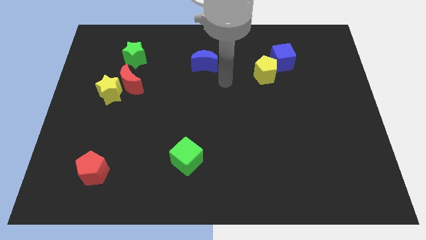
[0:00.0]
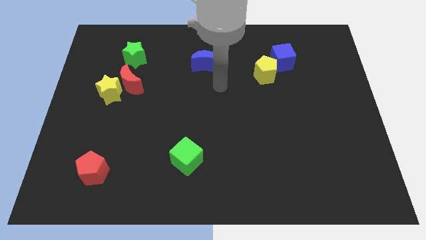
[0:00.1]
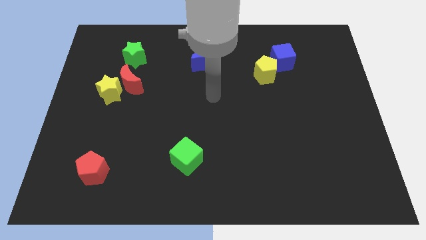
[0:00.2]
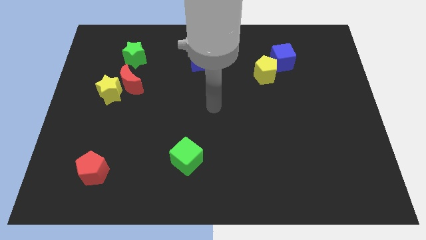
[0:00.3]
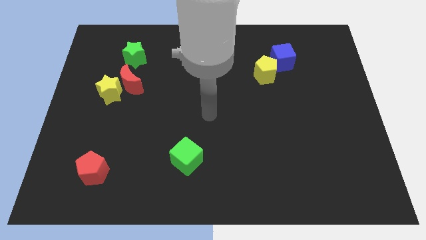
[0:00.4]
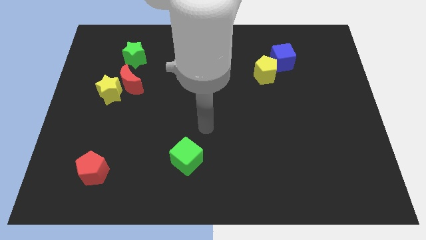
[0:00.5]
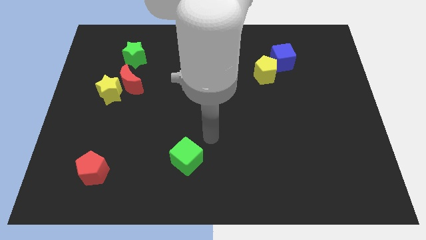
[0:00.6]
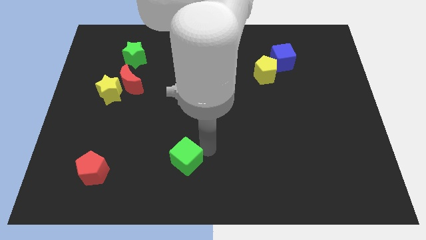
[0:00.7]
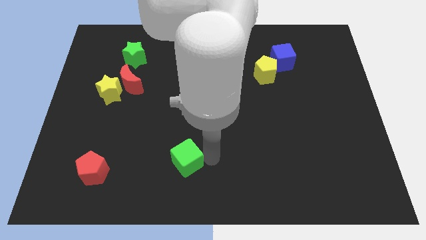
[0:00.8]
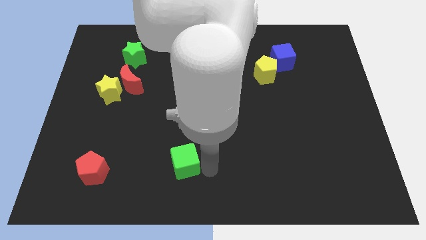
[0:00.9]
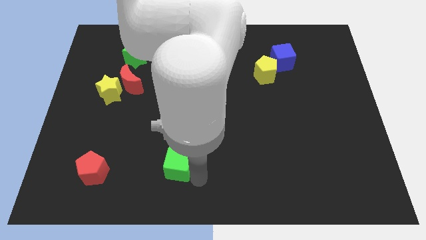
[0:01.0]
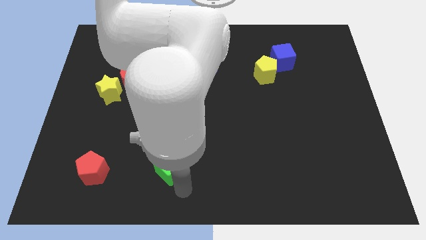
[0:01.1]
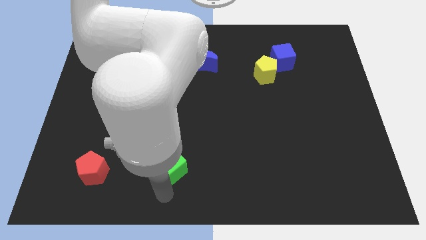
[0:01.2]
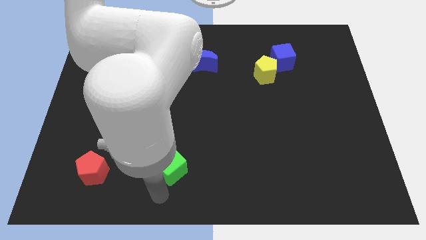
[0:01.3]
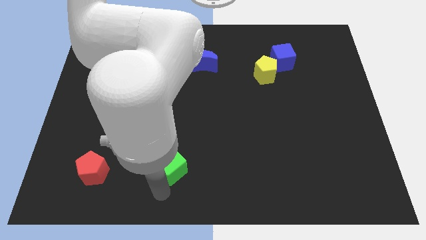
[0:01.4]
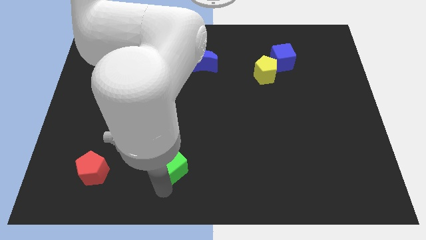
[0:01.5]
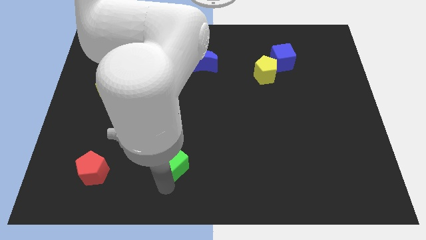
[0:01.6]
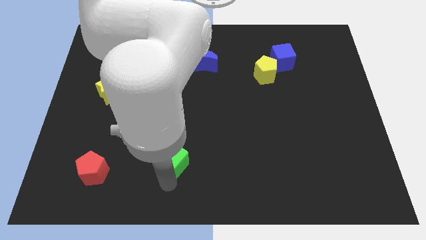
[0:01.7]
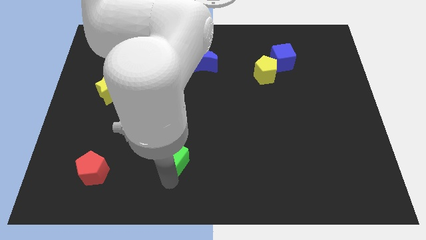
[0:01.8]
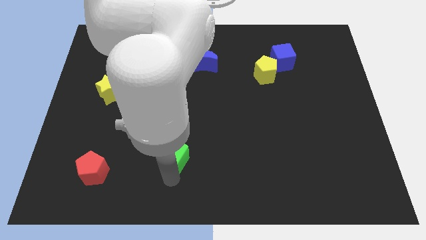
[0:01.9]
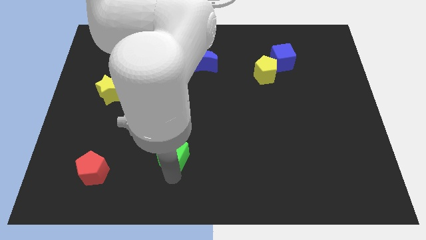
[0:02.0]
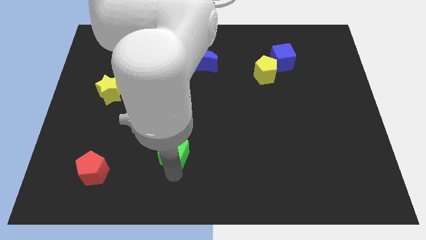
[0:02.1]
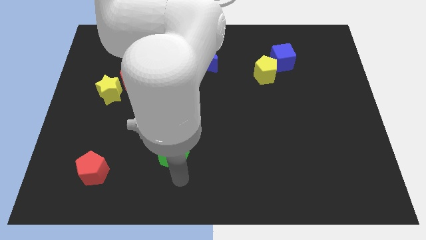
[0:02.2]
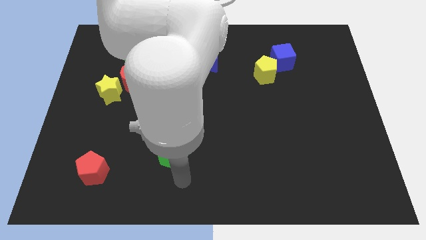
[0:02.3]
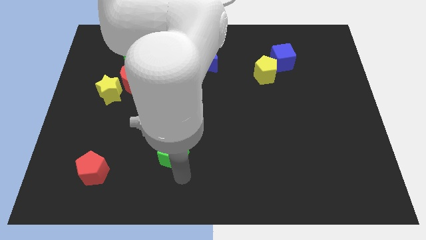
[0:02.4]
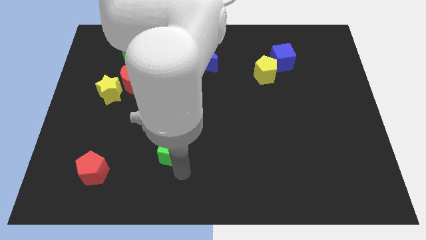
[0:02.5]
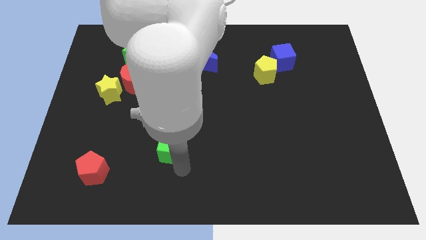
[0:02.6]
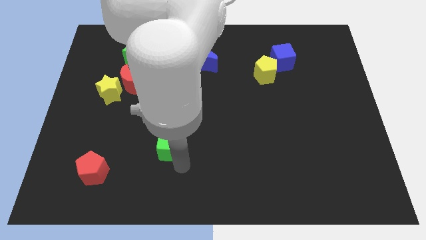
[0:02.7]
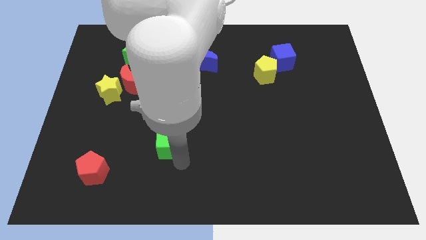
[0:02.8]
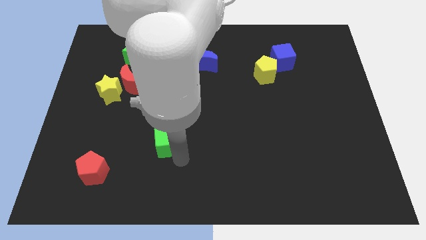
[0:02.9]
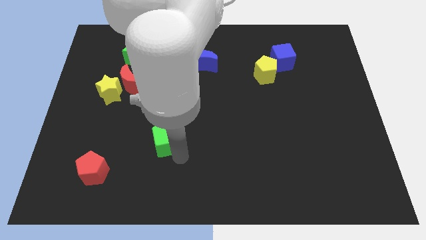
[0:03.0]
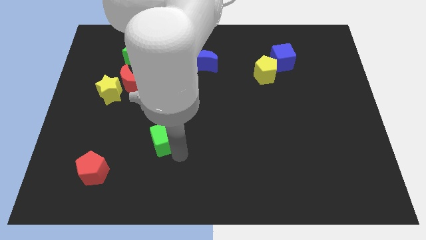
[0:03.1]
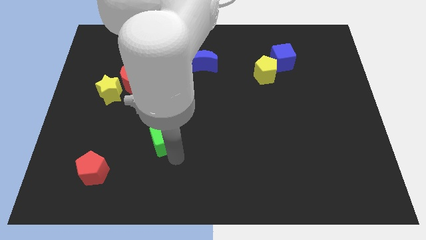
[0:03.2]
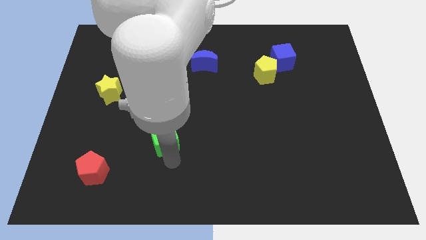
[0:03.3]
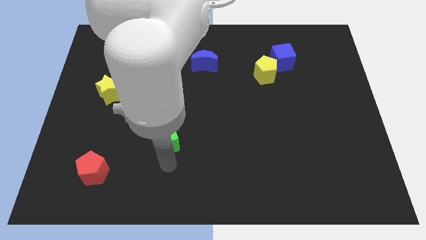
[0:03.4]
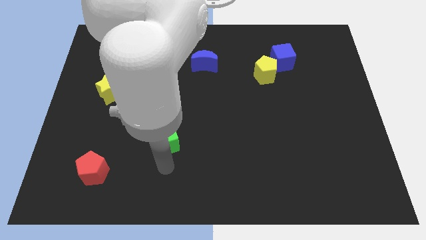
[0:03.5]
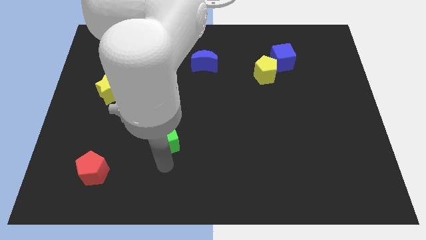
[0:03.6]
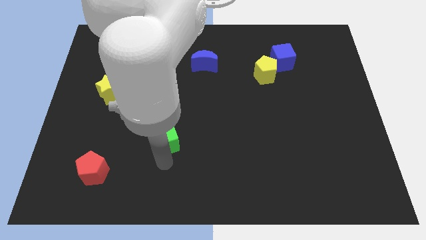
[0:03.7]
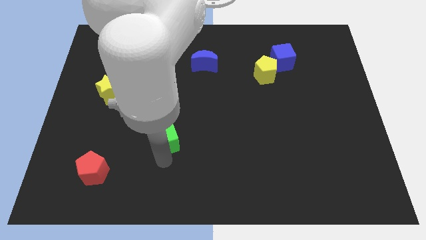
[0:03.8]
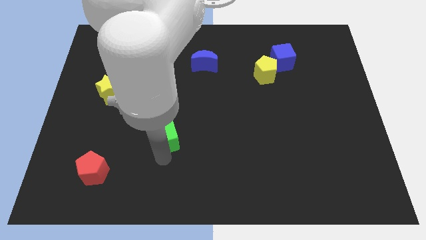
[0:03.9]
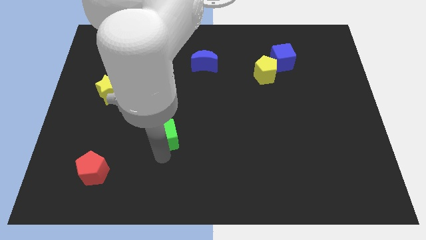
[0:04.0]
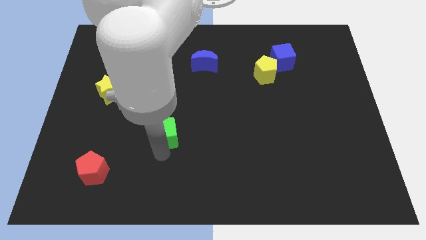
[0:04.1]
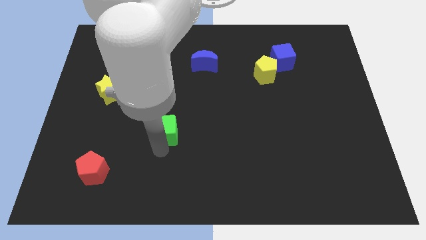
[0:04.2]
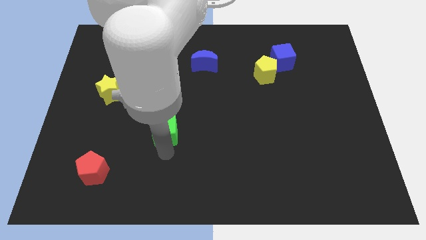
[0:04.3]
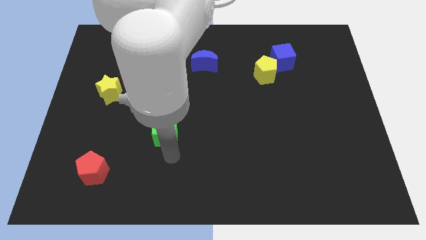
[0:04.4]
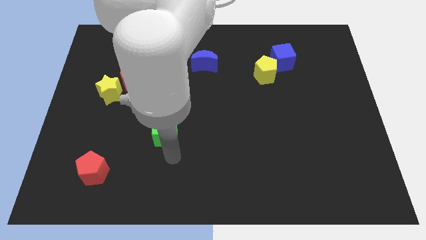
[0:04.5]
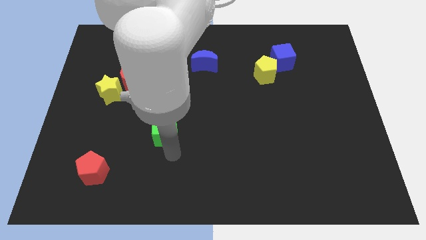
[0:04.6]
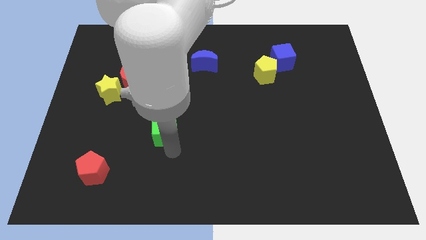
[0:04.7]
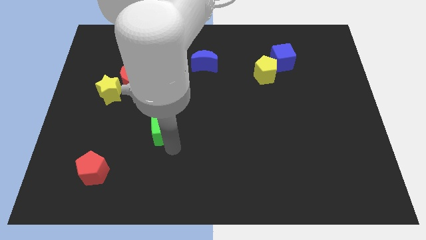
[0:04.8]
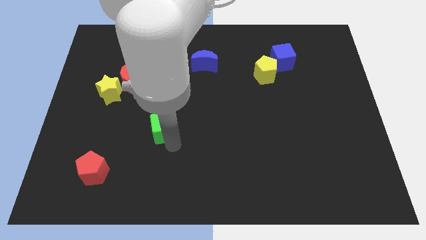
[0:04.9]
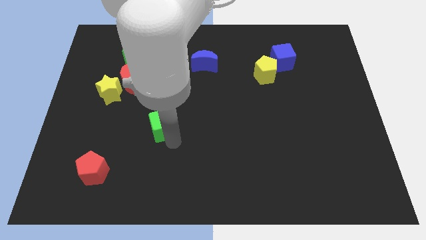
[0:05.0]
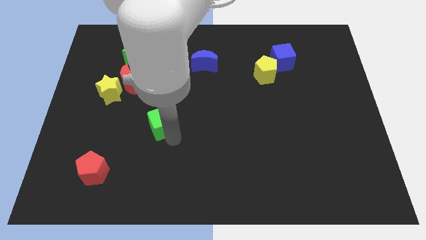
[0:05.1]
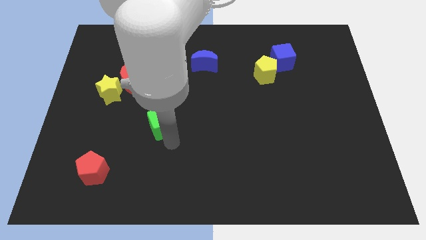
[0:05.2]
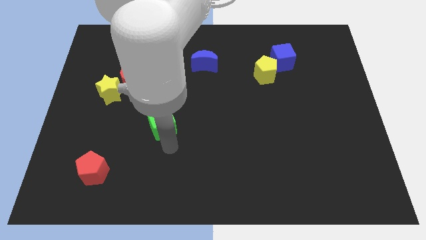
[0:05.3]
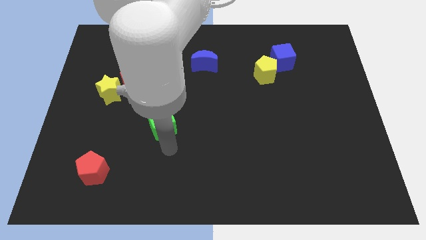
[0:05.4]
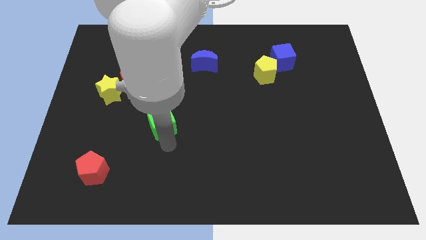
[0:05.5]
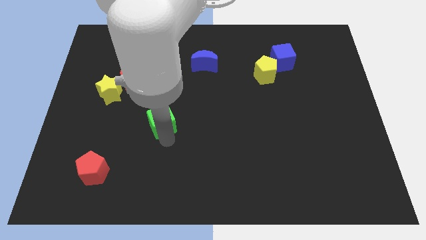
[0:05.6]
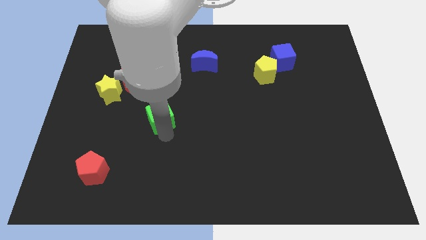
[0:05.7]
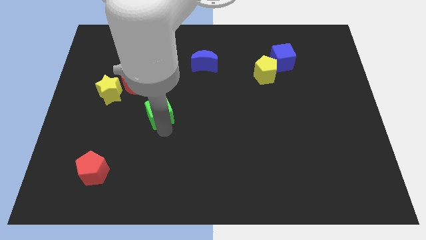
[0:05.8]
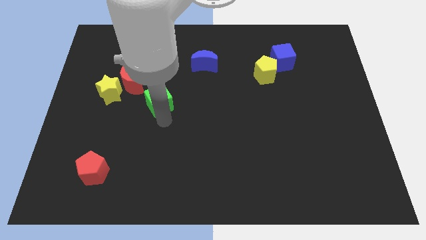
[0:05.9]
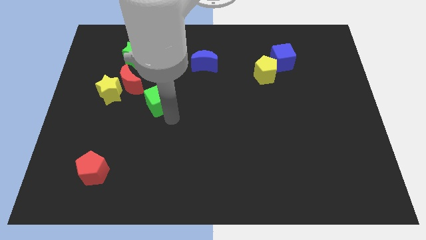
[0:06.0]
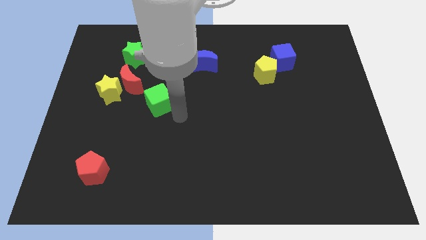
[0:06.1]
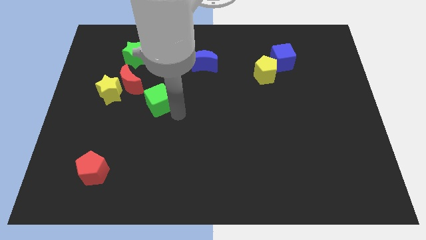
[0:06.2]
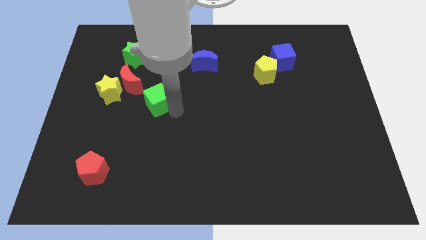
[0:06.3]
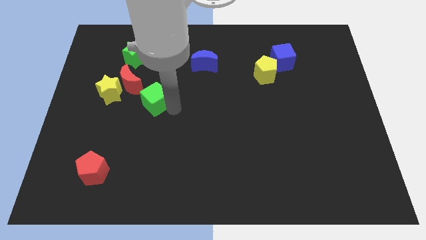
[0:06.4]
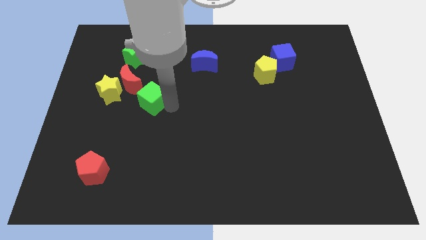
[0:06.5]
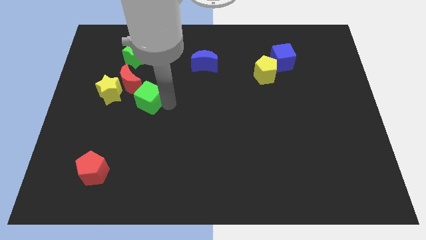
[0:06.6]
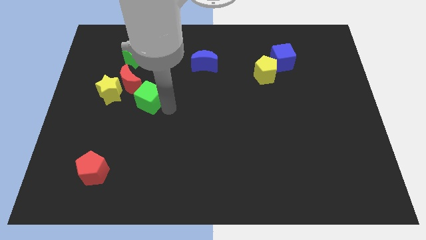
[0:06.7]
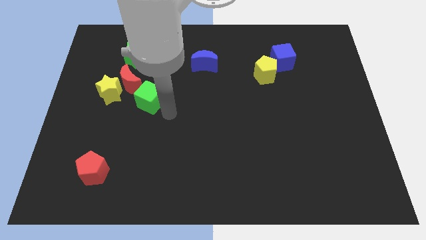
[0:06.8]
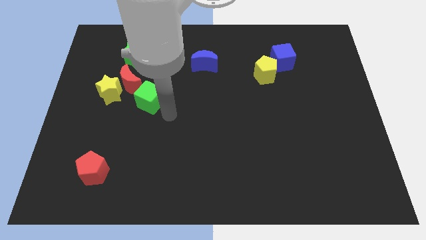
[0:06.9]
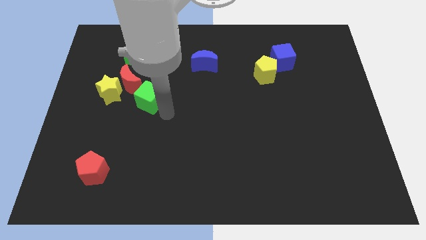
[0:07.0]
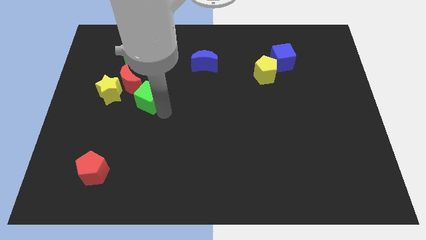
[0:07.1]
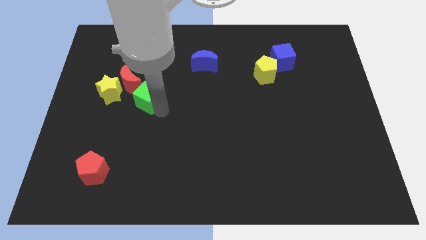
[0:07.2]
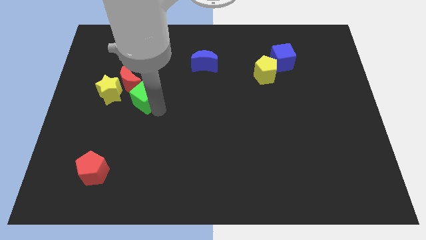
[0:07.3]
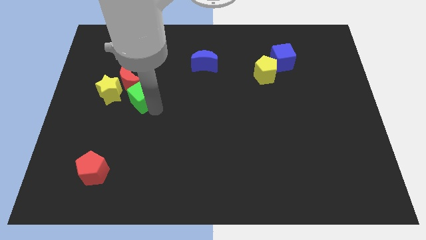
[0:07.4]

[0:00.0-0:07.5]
push the green cube to the red moon

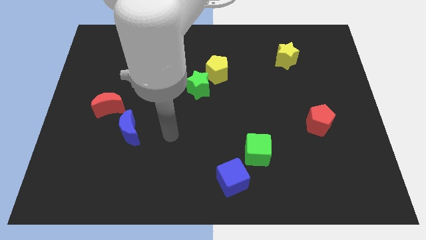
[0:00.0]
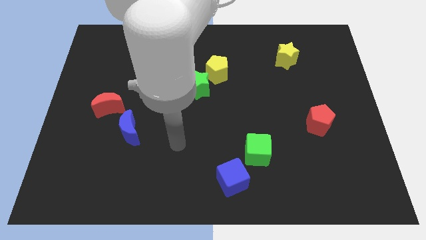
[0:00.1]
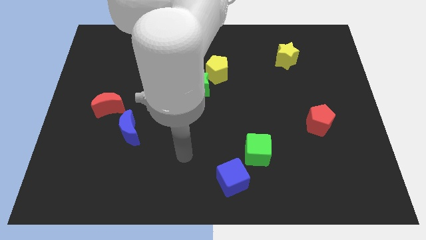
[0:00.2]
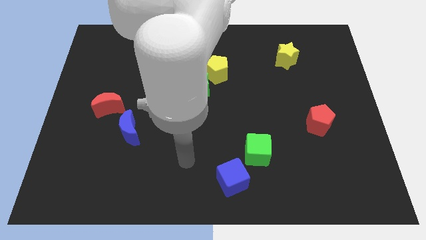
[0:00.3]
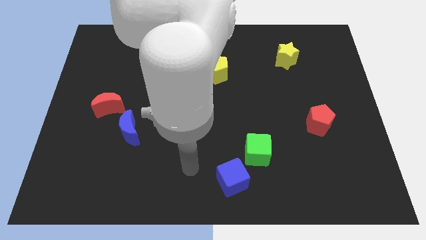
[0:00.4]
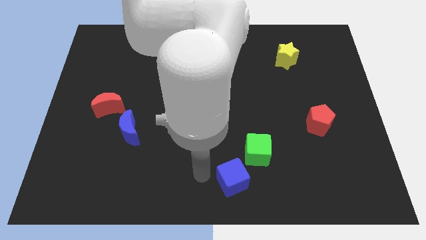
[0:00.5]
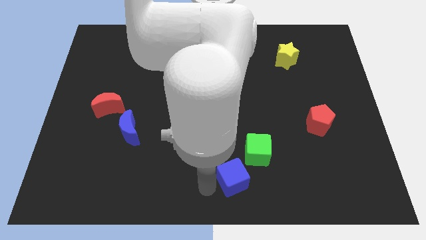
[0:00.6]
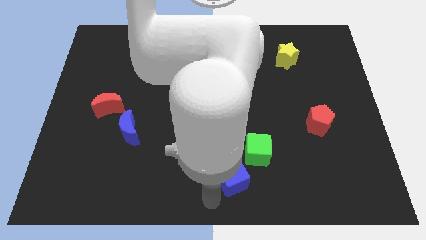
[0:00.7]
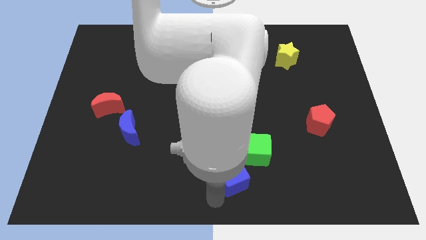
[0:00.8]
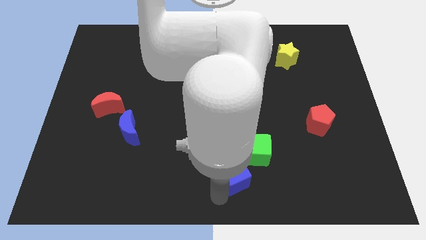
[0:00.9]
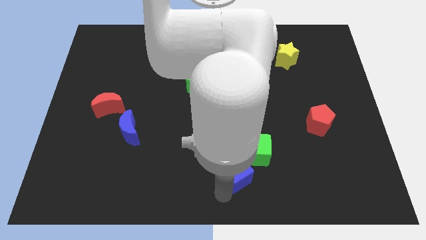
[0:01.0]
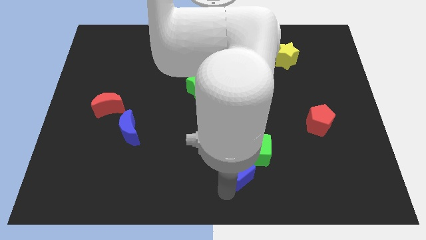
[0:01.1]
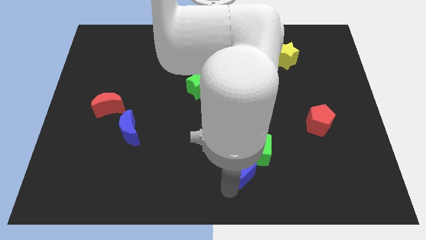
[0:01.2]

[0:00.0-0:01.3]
slide the blue cube towards the green cube
